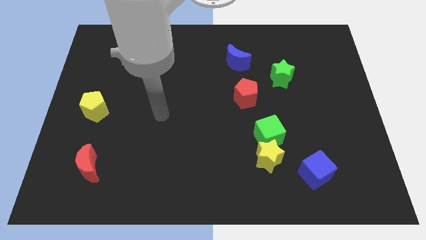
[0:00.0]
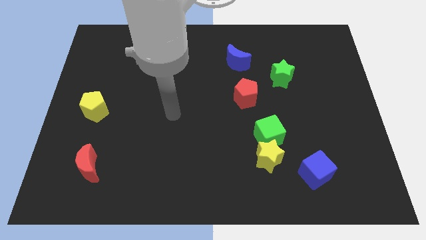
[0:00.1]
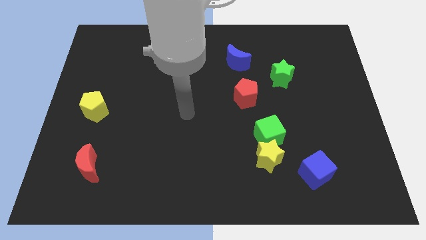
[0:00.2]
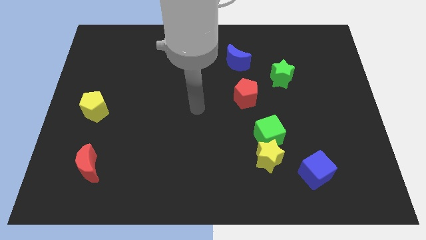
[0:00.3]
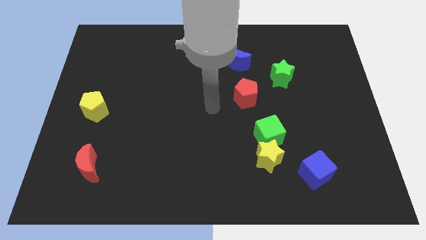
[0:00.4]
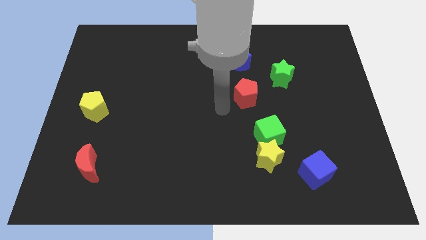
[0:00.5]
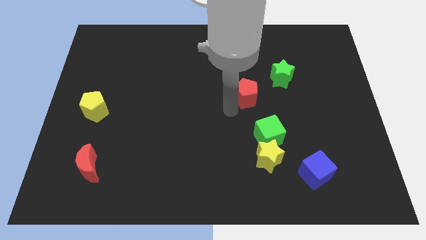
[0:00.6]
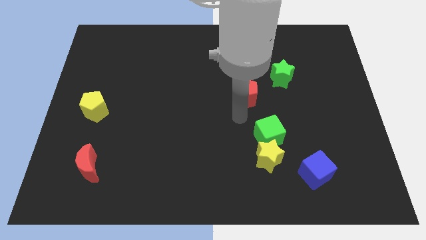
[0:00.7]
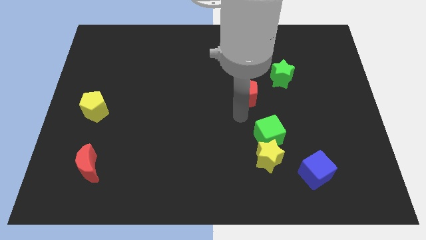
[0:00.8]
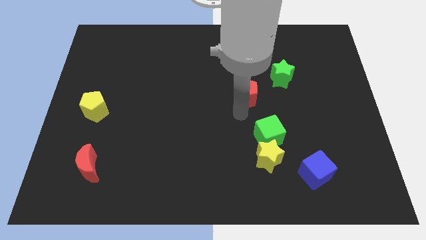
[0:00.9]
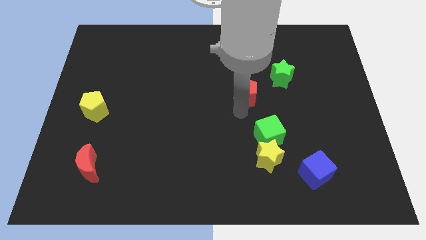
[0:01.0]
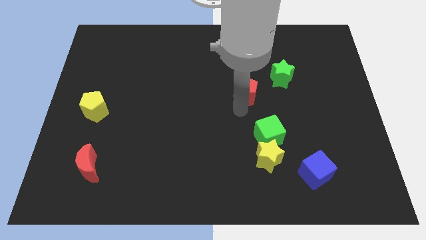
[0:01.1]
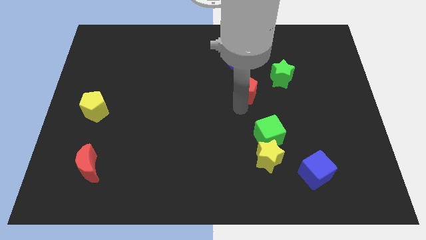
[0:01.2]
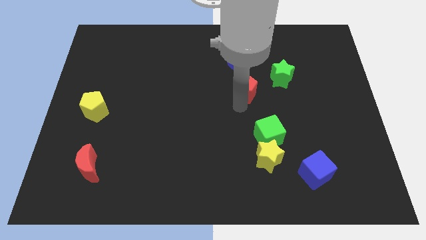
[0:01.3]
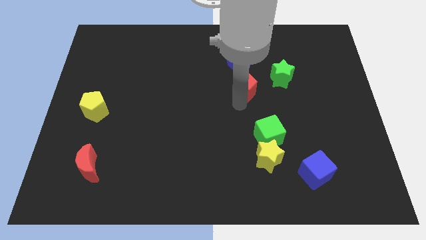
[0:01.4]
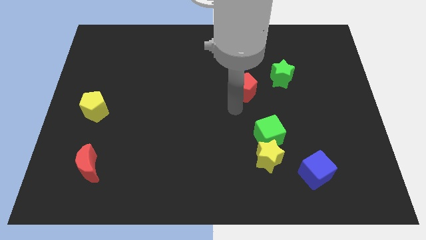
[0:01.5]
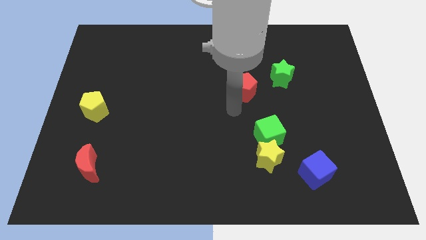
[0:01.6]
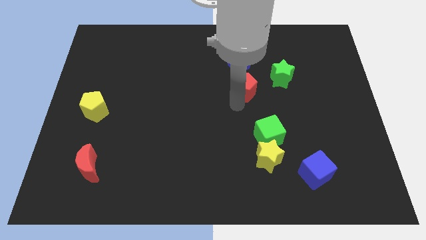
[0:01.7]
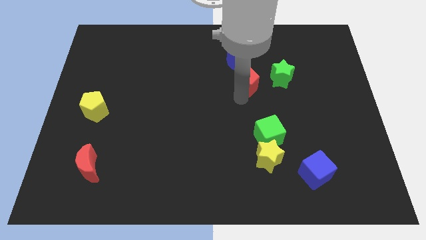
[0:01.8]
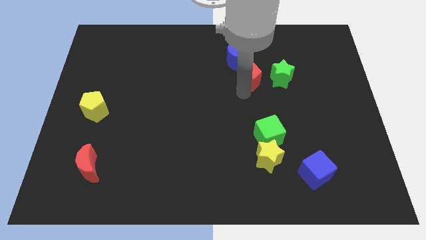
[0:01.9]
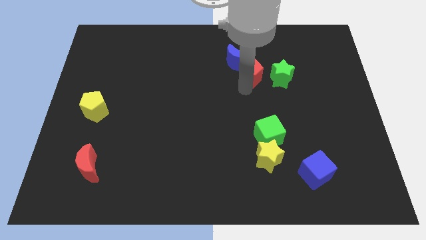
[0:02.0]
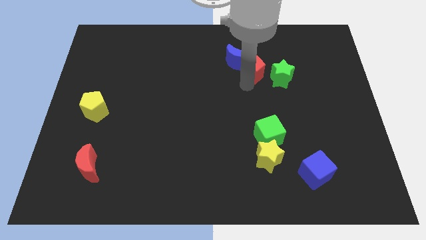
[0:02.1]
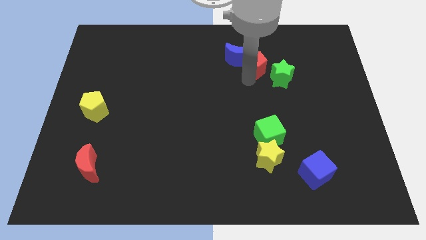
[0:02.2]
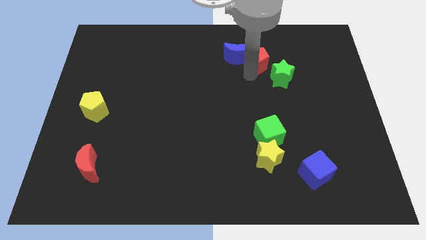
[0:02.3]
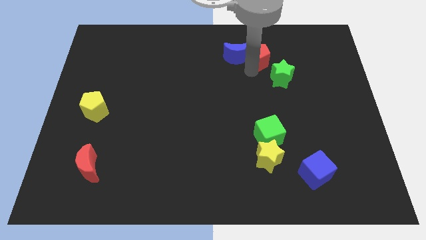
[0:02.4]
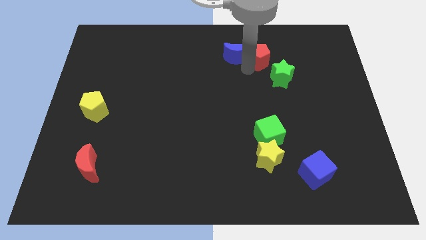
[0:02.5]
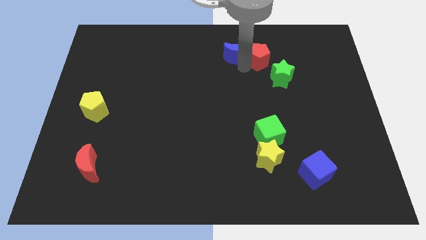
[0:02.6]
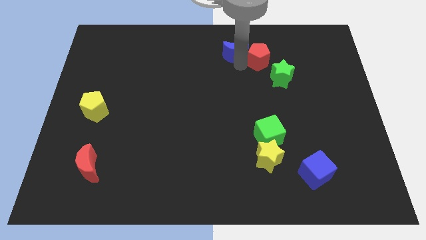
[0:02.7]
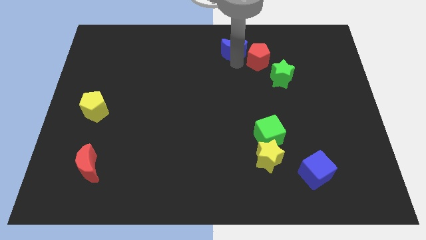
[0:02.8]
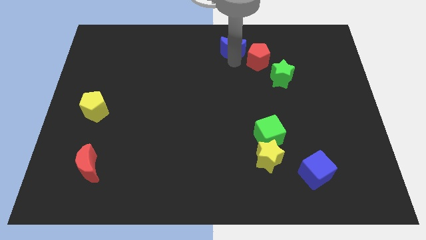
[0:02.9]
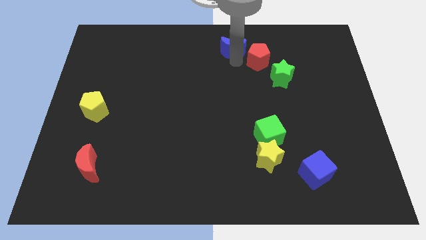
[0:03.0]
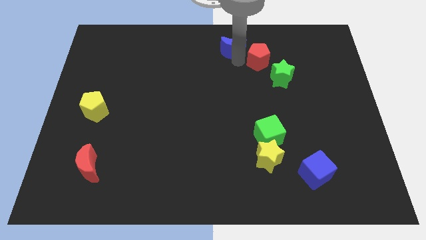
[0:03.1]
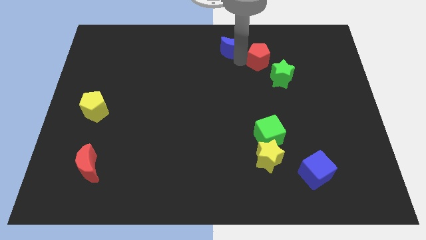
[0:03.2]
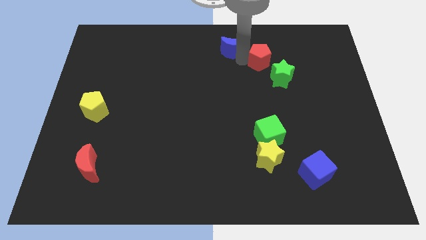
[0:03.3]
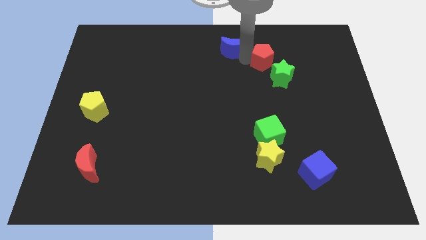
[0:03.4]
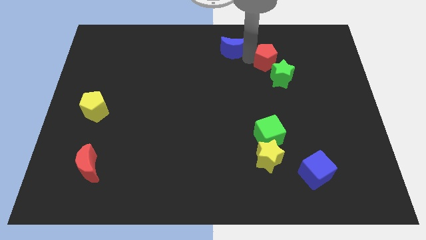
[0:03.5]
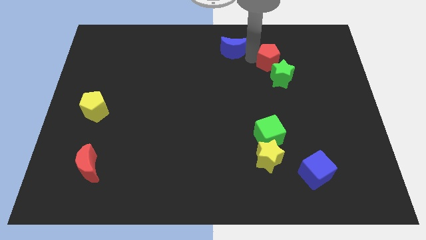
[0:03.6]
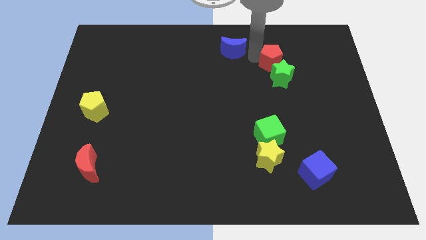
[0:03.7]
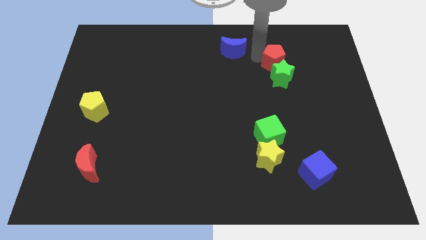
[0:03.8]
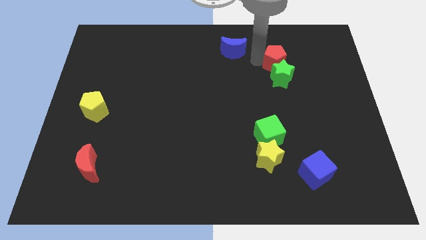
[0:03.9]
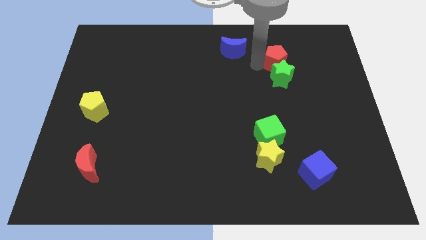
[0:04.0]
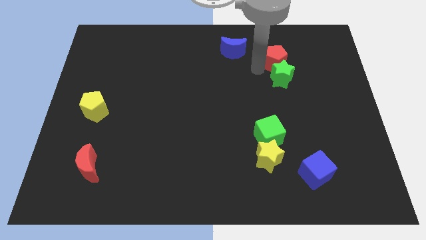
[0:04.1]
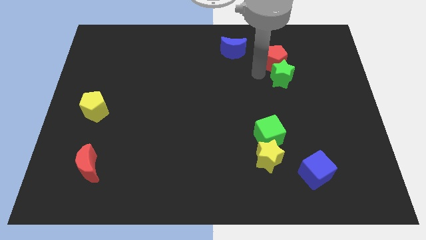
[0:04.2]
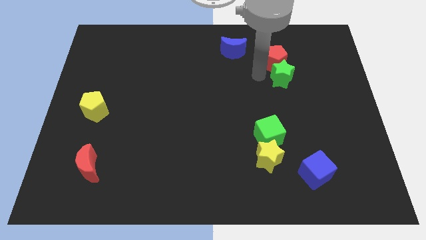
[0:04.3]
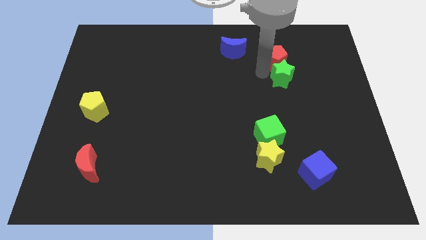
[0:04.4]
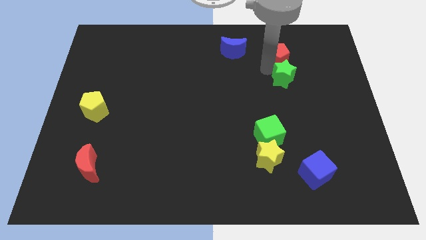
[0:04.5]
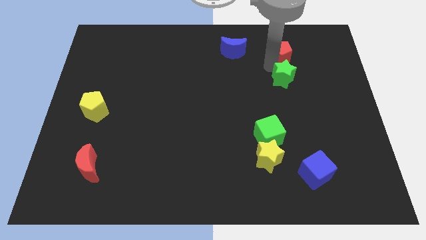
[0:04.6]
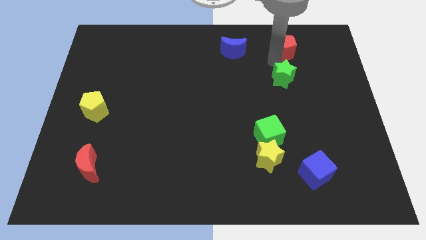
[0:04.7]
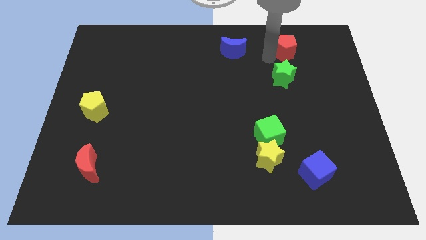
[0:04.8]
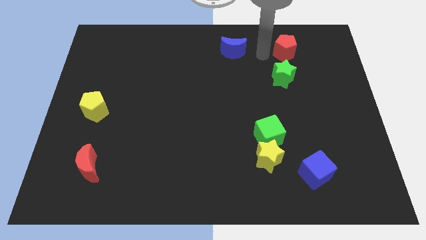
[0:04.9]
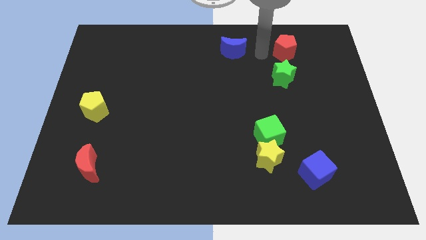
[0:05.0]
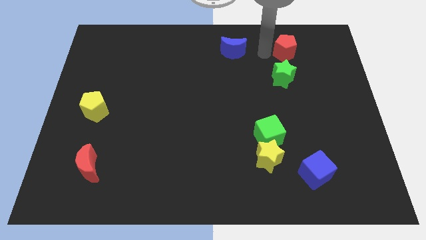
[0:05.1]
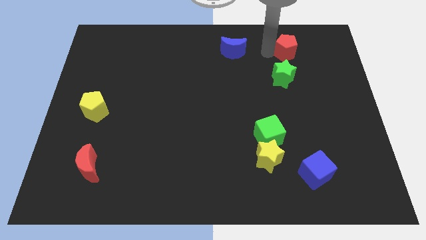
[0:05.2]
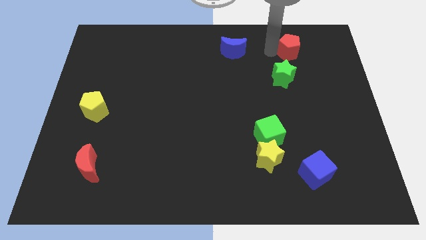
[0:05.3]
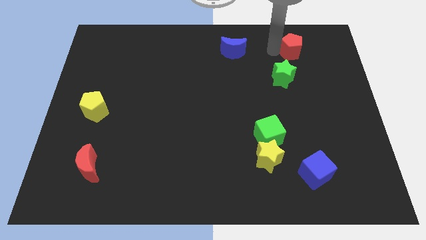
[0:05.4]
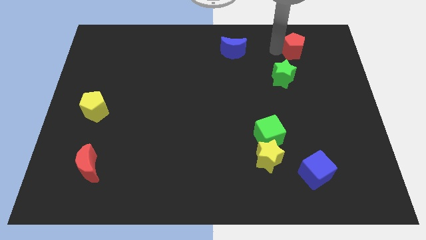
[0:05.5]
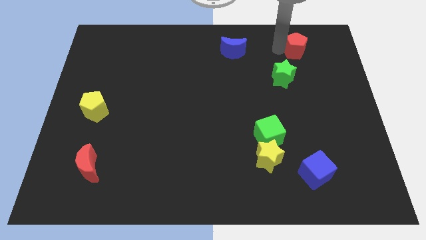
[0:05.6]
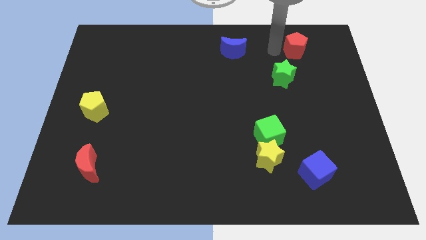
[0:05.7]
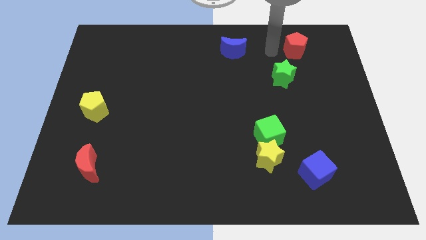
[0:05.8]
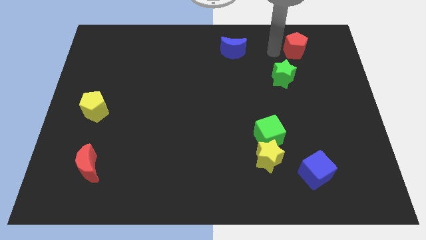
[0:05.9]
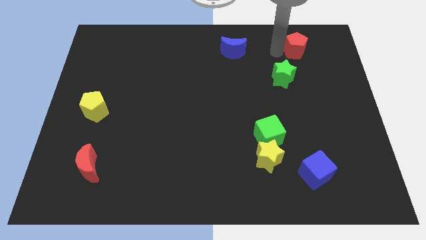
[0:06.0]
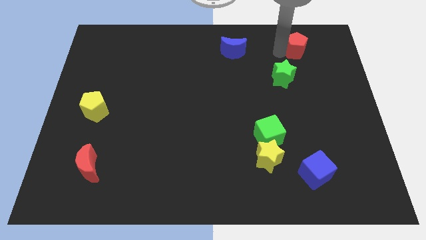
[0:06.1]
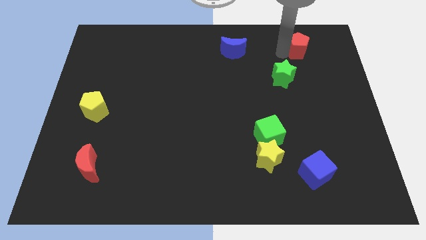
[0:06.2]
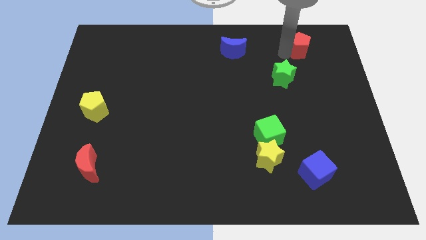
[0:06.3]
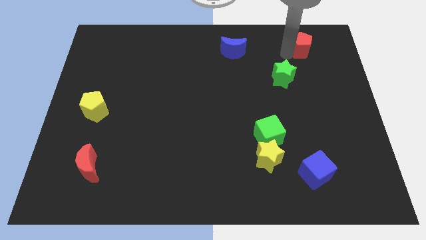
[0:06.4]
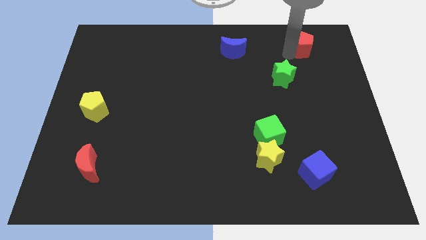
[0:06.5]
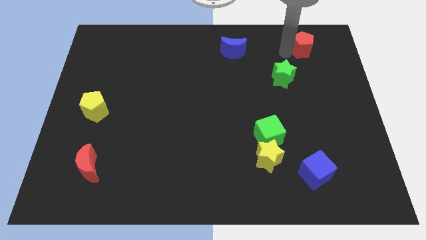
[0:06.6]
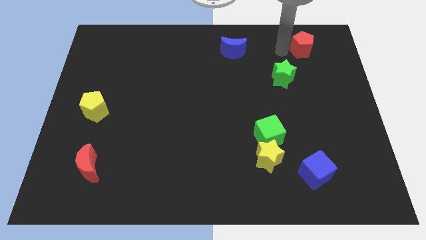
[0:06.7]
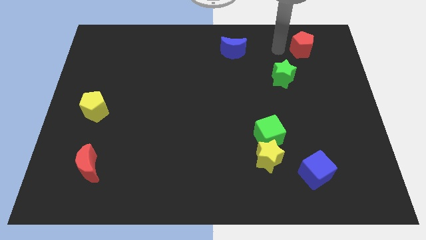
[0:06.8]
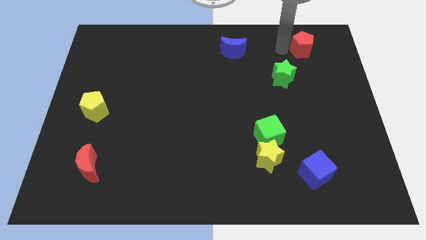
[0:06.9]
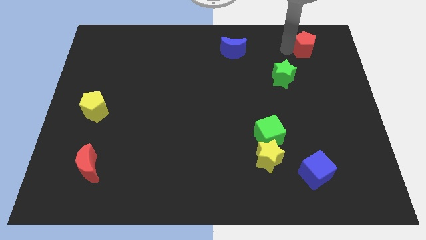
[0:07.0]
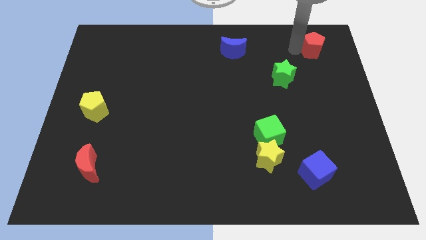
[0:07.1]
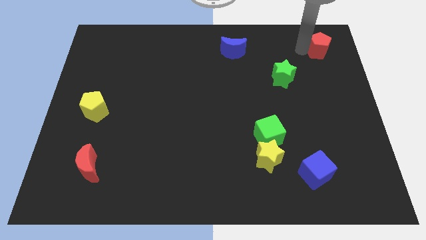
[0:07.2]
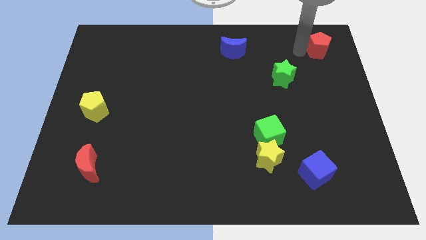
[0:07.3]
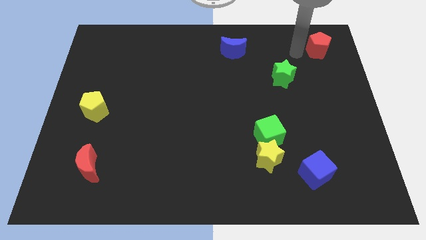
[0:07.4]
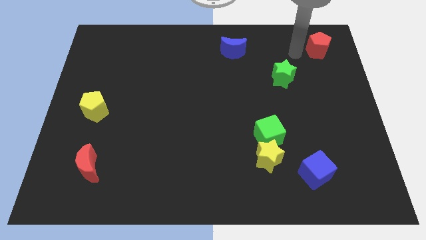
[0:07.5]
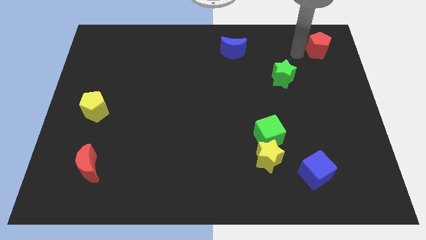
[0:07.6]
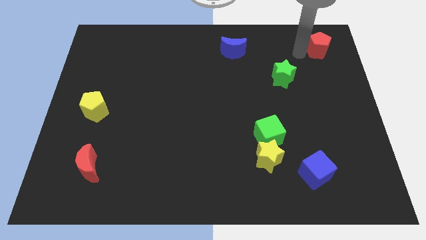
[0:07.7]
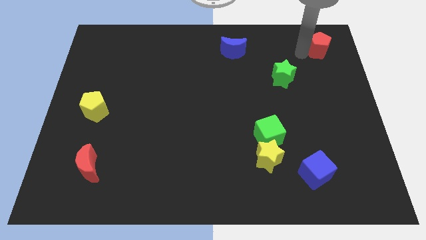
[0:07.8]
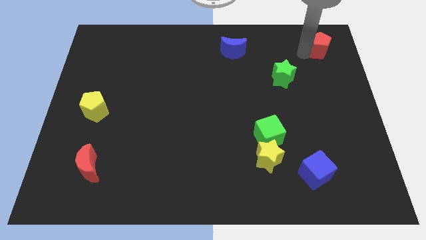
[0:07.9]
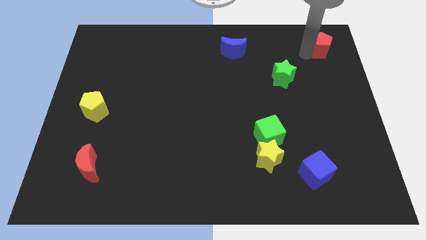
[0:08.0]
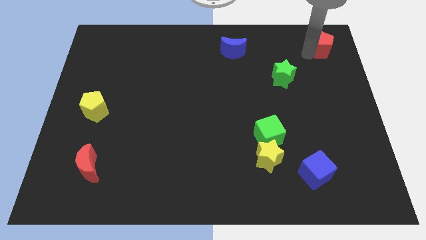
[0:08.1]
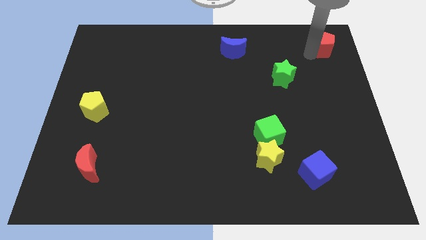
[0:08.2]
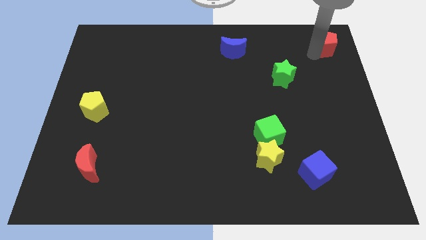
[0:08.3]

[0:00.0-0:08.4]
push the red pentagon to the top right of the board
